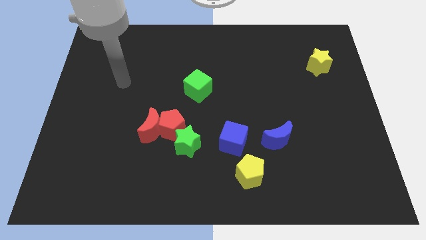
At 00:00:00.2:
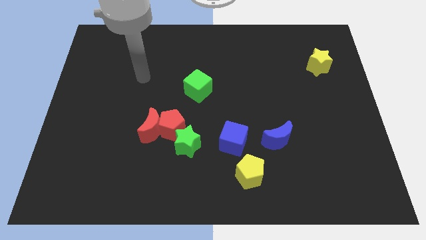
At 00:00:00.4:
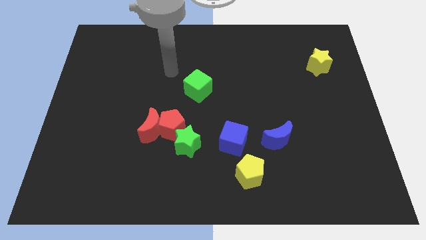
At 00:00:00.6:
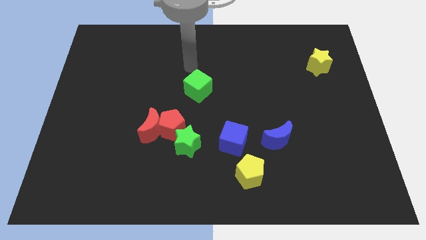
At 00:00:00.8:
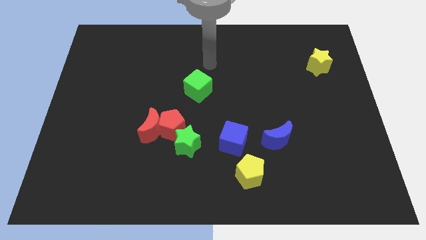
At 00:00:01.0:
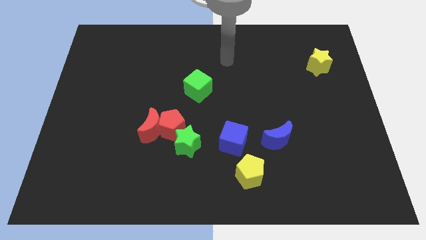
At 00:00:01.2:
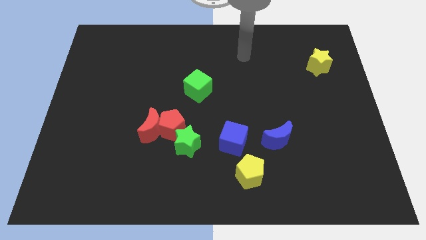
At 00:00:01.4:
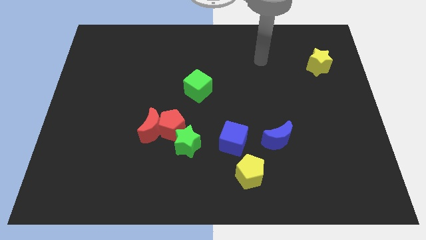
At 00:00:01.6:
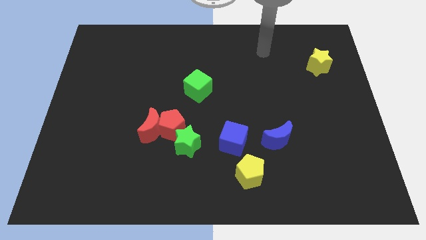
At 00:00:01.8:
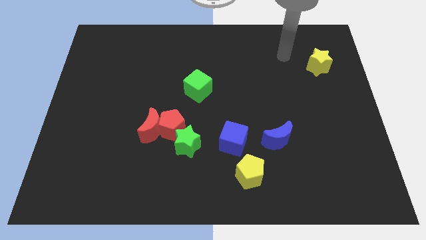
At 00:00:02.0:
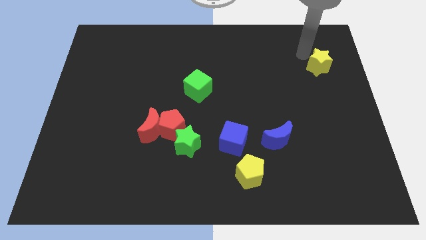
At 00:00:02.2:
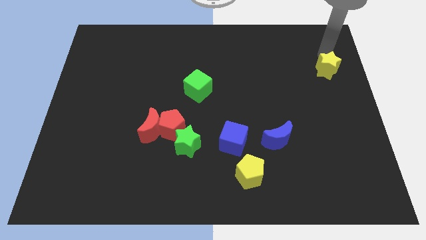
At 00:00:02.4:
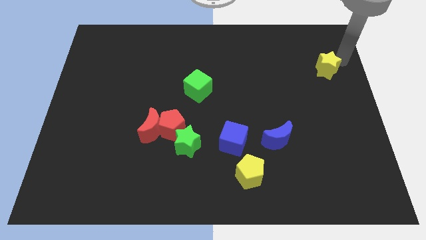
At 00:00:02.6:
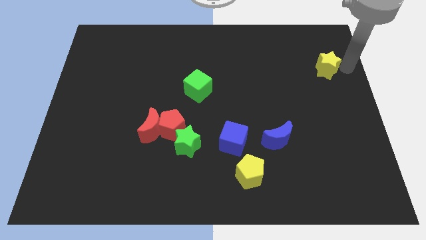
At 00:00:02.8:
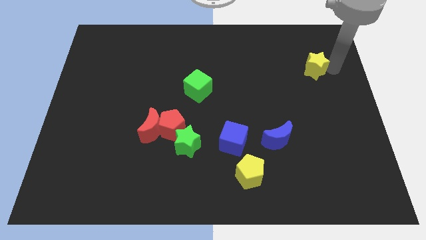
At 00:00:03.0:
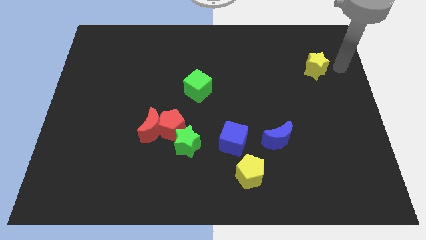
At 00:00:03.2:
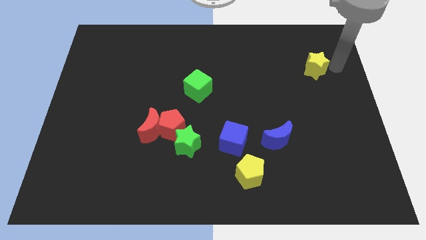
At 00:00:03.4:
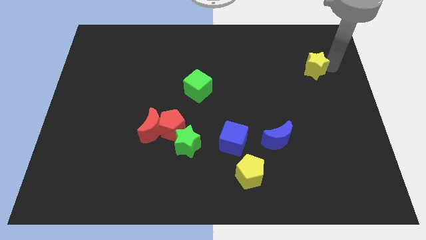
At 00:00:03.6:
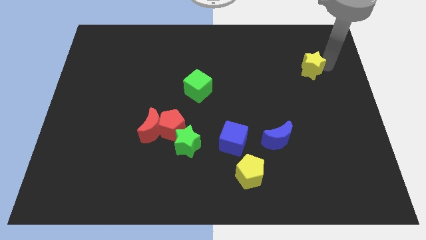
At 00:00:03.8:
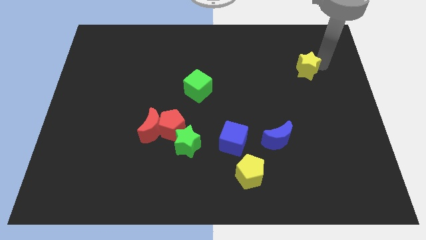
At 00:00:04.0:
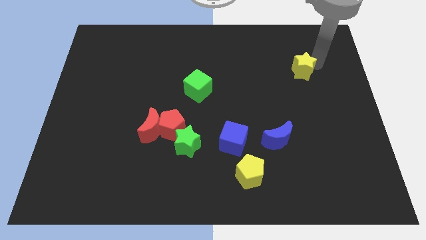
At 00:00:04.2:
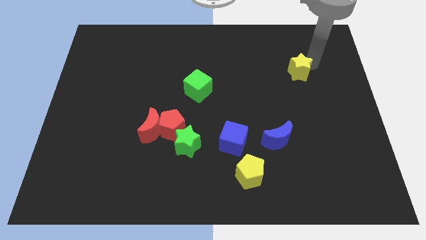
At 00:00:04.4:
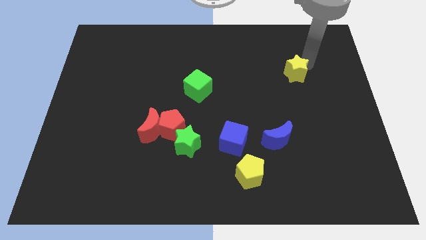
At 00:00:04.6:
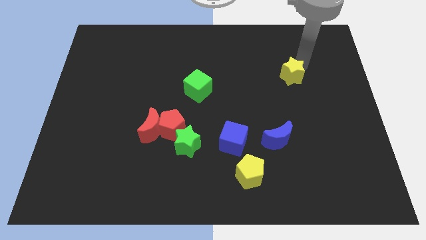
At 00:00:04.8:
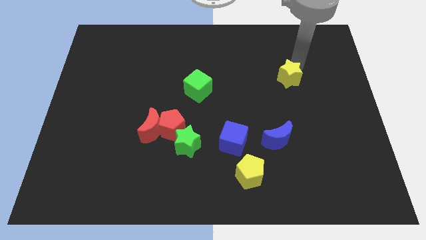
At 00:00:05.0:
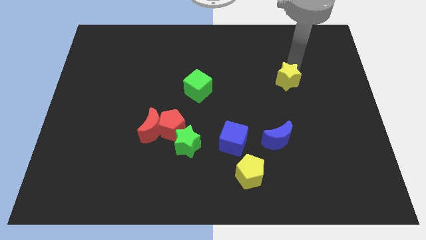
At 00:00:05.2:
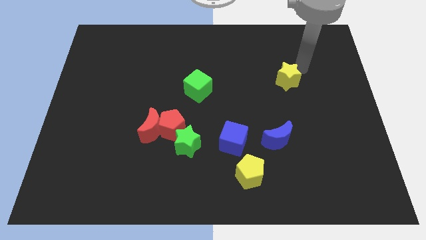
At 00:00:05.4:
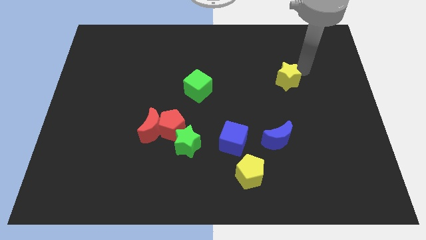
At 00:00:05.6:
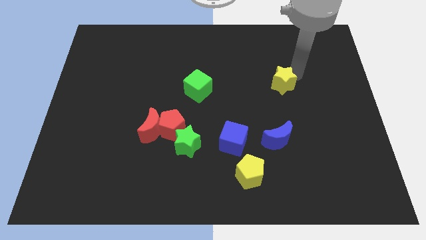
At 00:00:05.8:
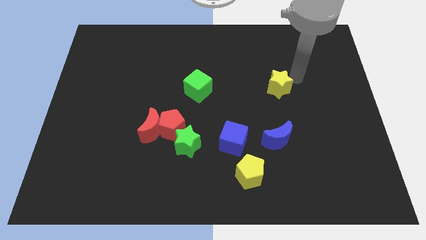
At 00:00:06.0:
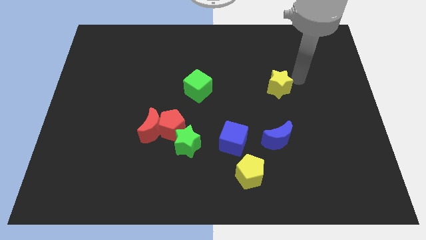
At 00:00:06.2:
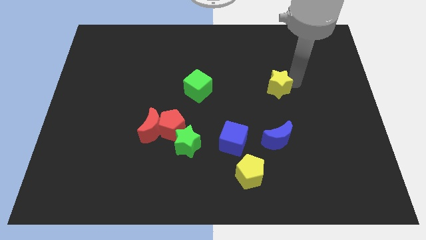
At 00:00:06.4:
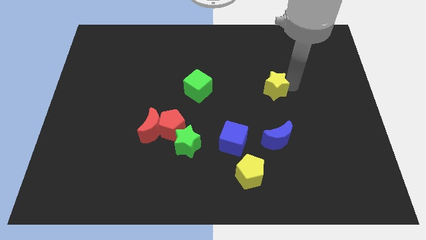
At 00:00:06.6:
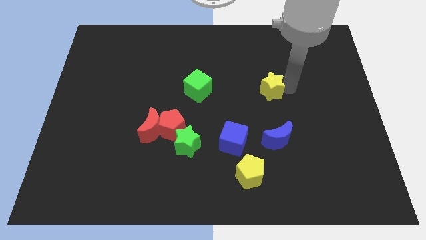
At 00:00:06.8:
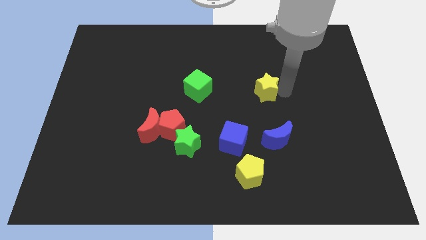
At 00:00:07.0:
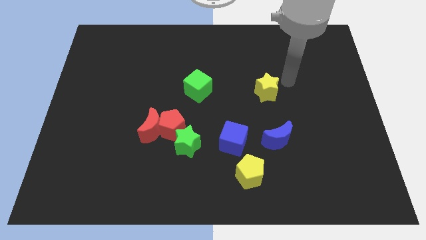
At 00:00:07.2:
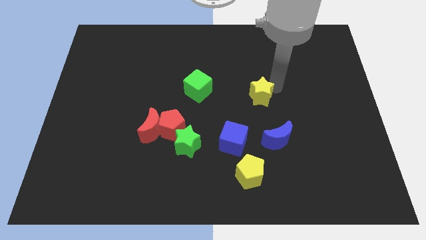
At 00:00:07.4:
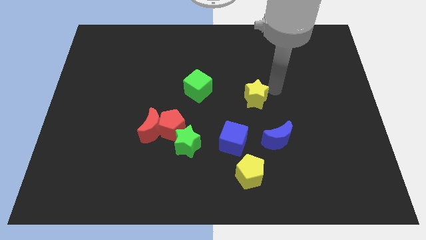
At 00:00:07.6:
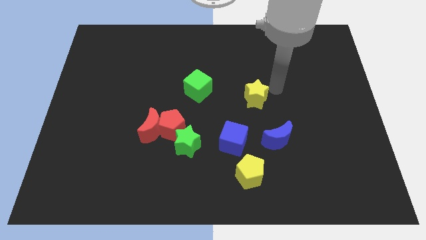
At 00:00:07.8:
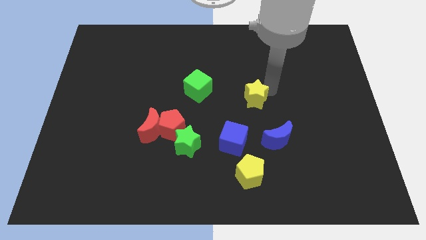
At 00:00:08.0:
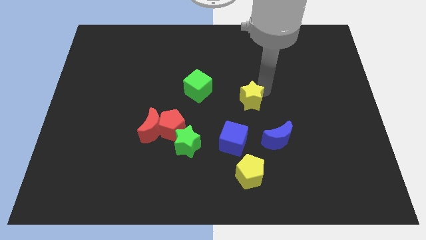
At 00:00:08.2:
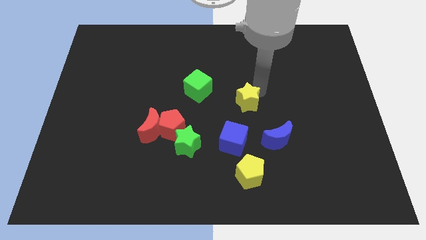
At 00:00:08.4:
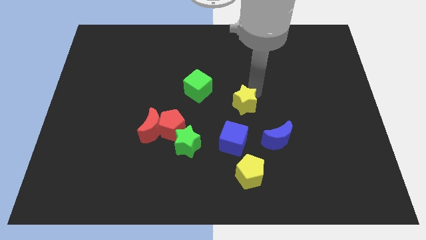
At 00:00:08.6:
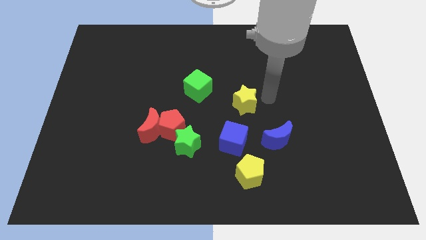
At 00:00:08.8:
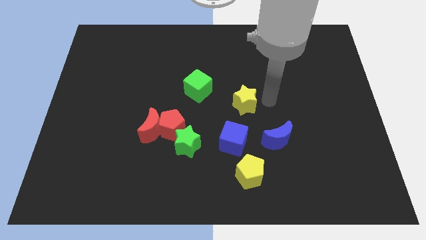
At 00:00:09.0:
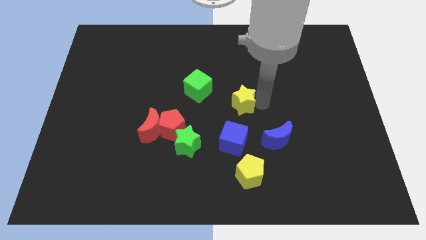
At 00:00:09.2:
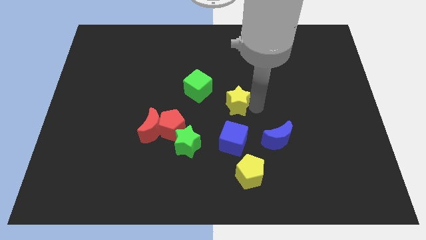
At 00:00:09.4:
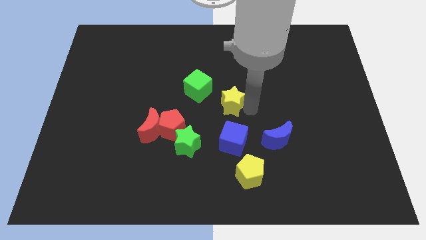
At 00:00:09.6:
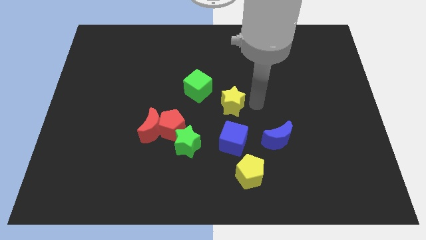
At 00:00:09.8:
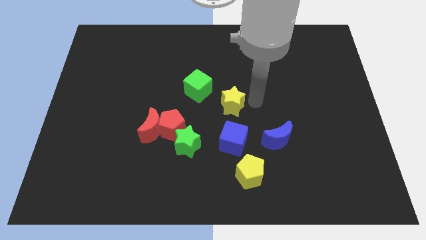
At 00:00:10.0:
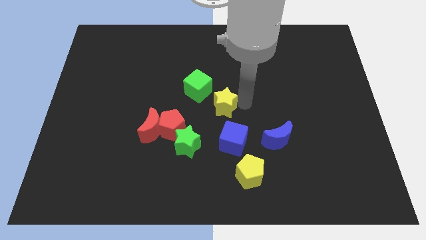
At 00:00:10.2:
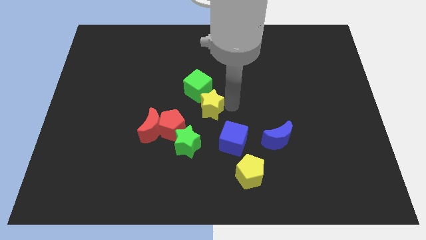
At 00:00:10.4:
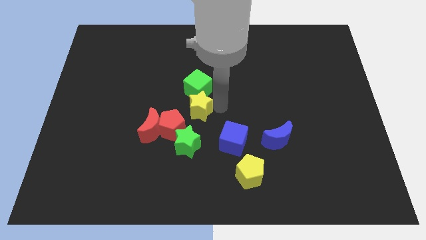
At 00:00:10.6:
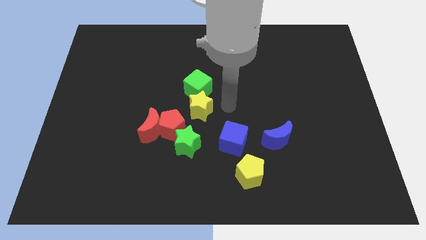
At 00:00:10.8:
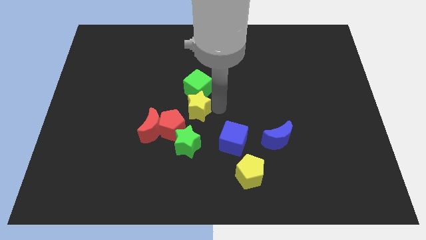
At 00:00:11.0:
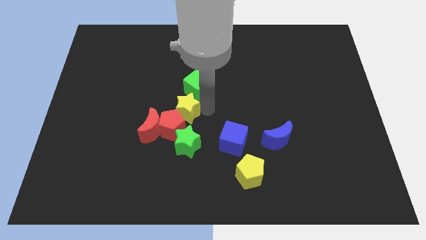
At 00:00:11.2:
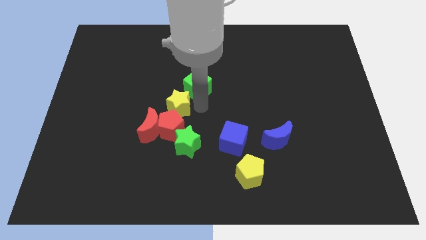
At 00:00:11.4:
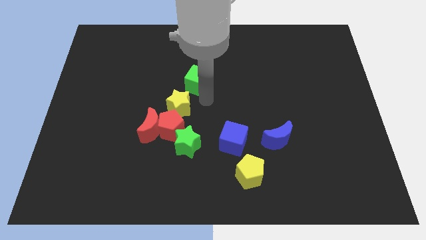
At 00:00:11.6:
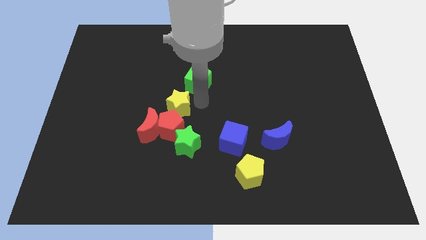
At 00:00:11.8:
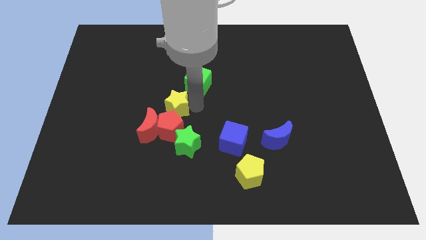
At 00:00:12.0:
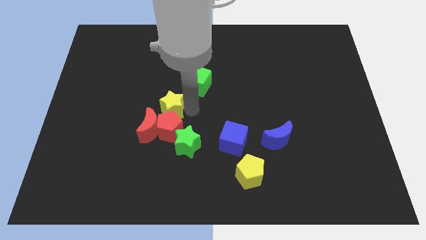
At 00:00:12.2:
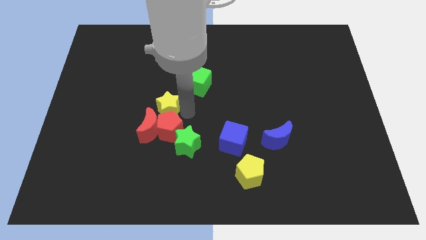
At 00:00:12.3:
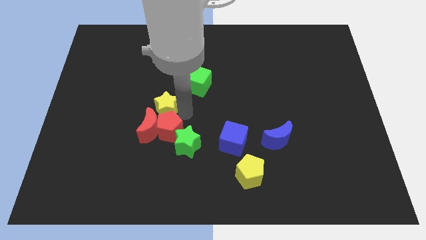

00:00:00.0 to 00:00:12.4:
move the yellow star next to the red moon

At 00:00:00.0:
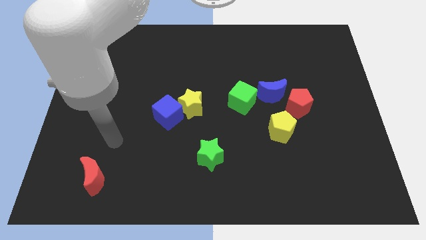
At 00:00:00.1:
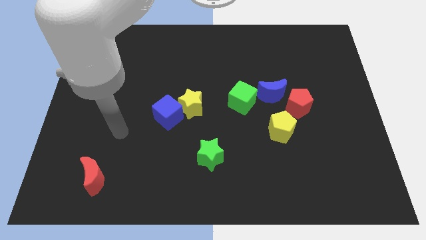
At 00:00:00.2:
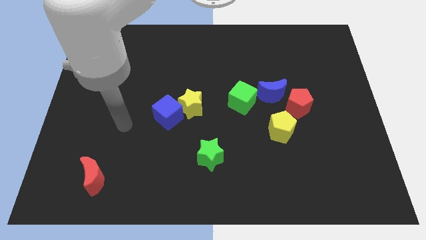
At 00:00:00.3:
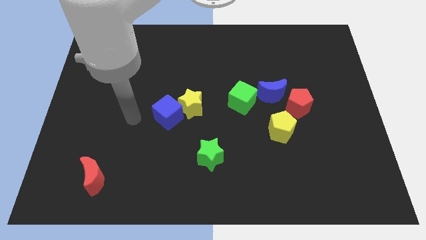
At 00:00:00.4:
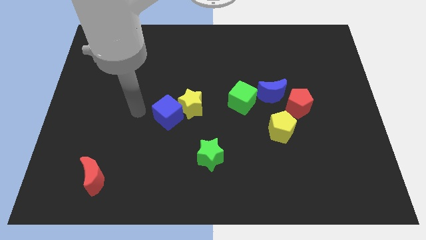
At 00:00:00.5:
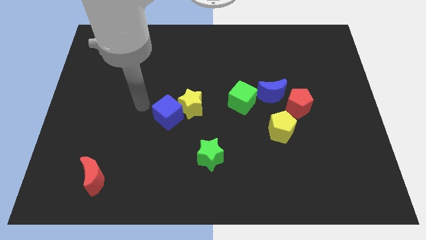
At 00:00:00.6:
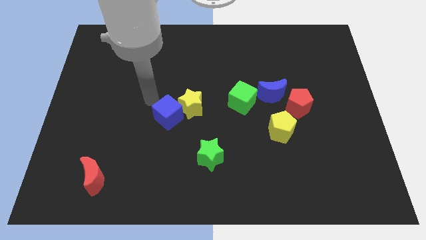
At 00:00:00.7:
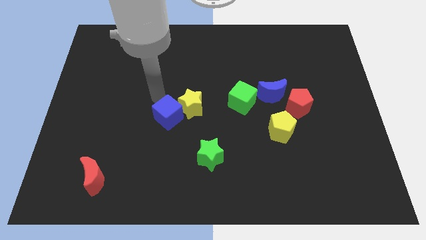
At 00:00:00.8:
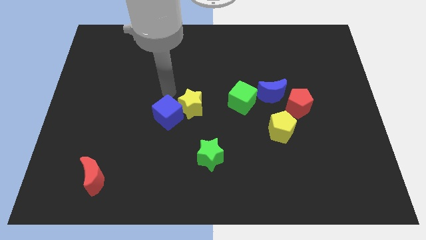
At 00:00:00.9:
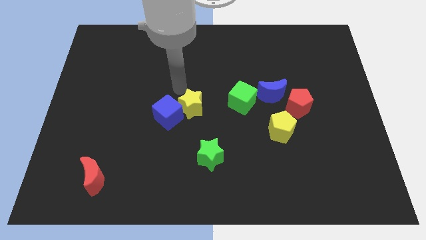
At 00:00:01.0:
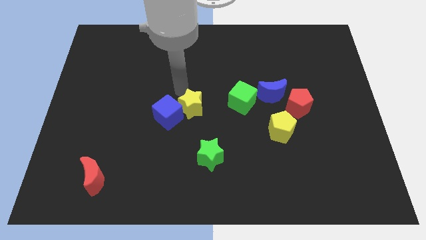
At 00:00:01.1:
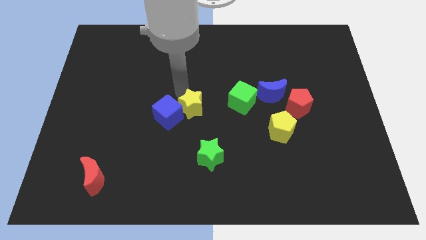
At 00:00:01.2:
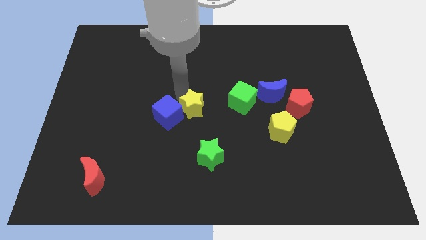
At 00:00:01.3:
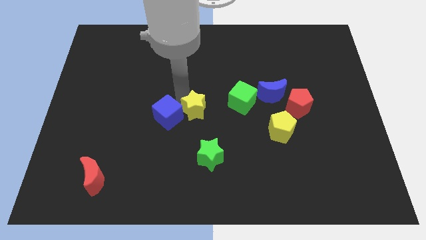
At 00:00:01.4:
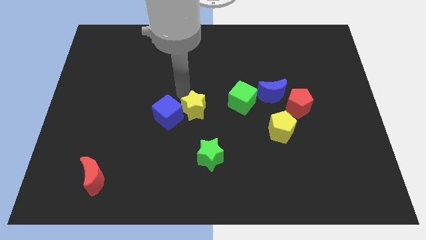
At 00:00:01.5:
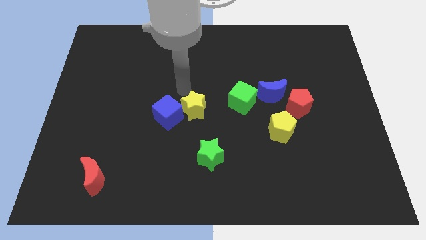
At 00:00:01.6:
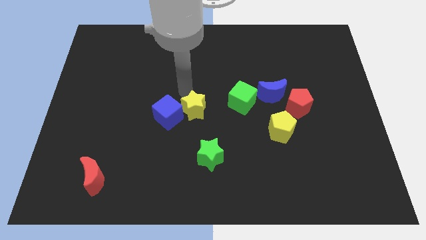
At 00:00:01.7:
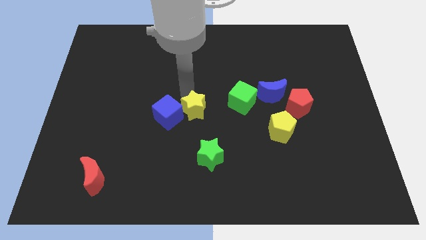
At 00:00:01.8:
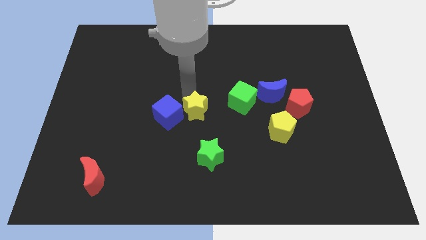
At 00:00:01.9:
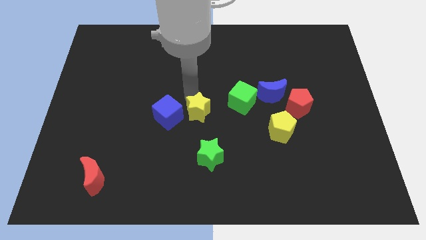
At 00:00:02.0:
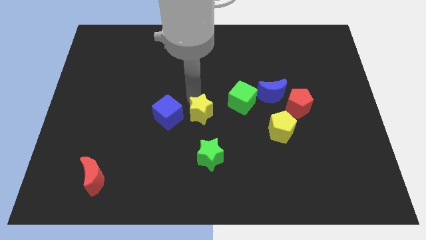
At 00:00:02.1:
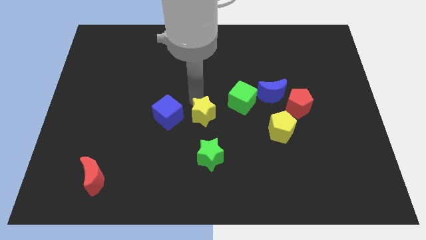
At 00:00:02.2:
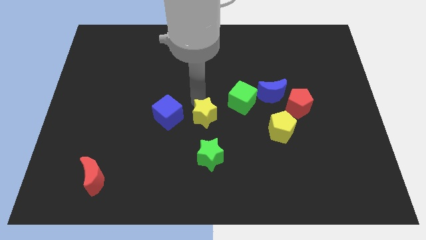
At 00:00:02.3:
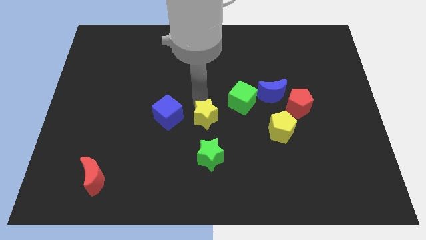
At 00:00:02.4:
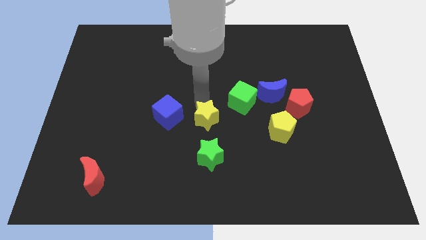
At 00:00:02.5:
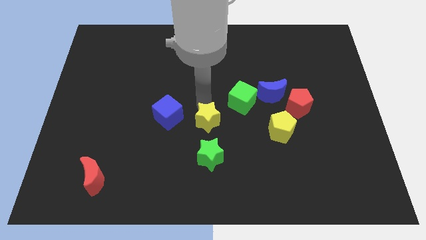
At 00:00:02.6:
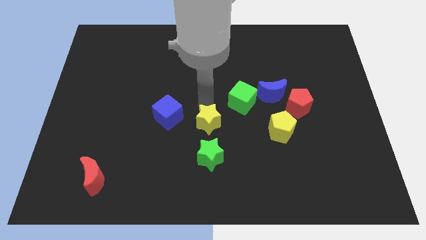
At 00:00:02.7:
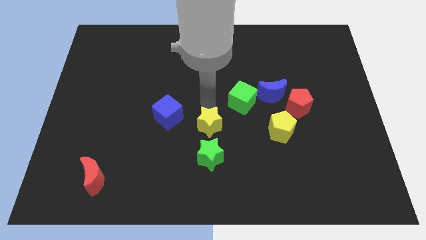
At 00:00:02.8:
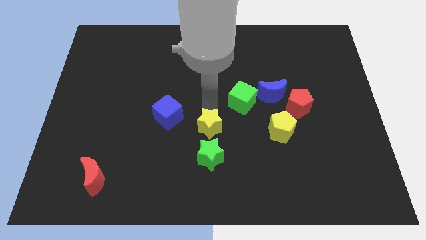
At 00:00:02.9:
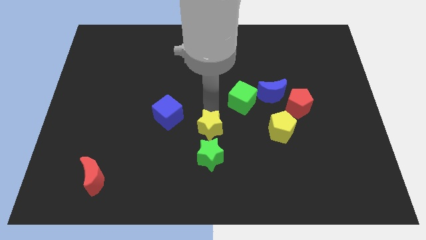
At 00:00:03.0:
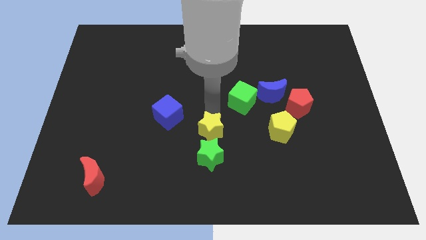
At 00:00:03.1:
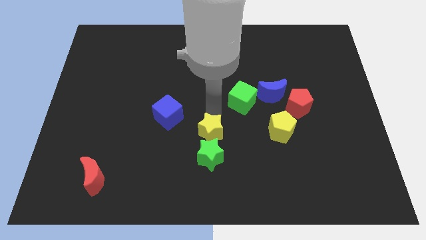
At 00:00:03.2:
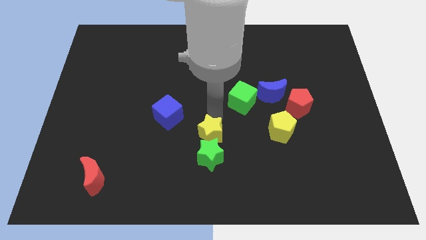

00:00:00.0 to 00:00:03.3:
push the yellow star next to the green star
